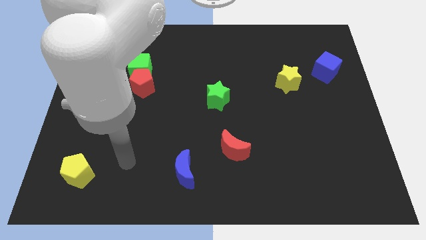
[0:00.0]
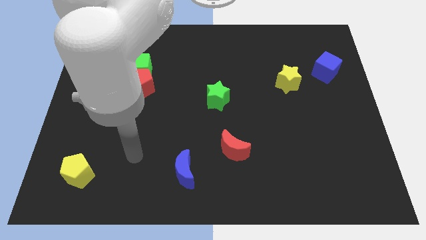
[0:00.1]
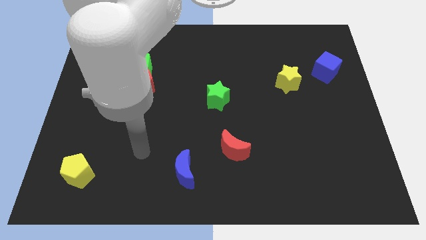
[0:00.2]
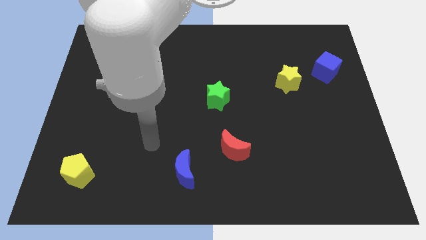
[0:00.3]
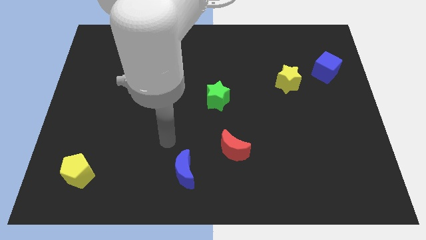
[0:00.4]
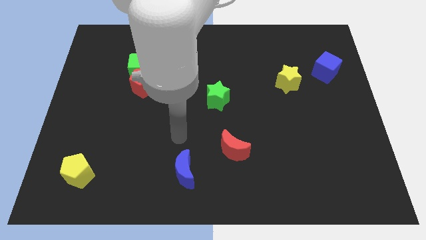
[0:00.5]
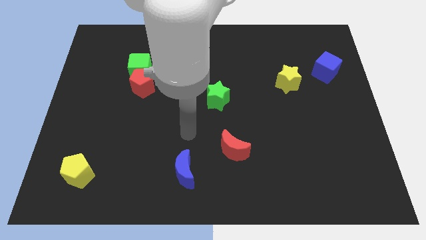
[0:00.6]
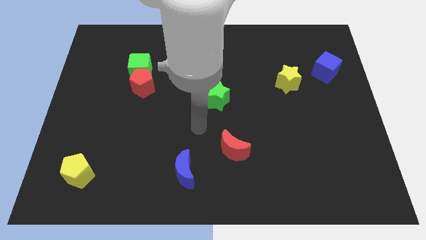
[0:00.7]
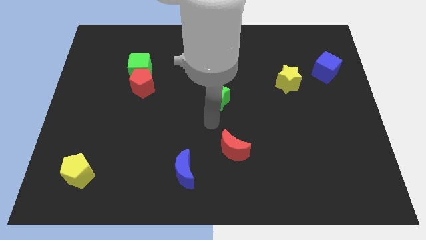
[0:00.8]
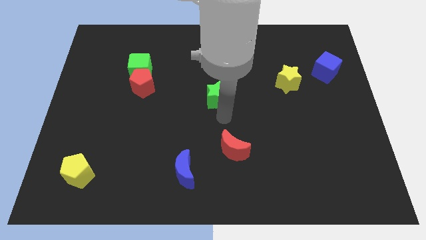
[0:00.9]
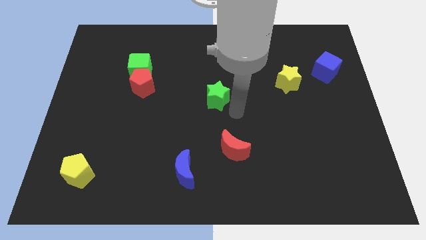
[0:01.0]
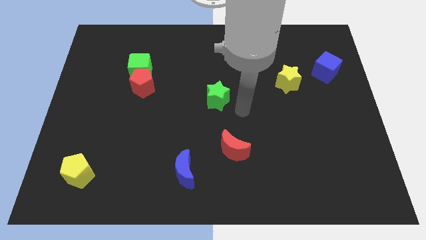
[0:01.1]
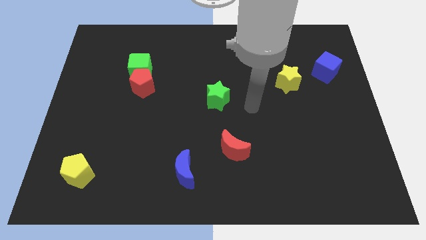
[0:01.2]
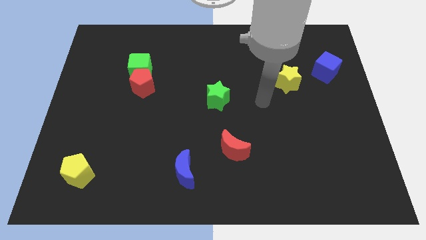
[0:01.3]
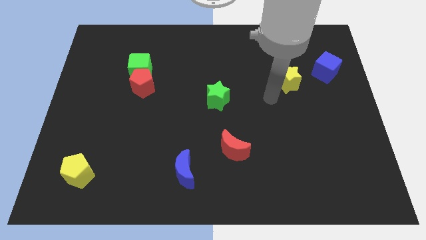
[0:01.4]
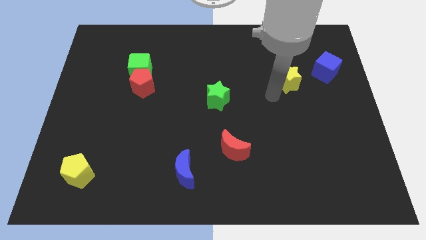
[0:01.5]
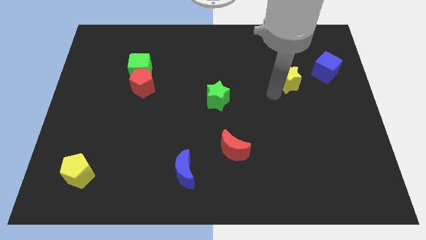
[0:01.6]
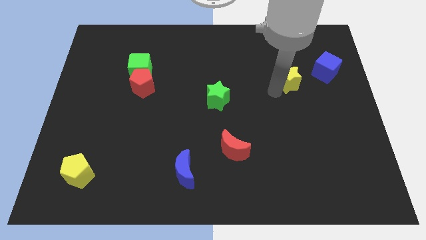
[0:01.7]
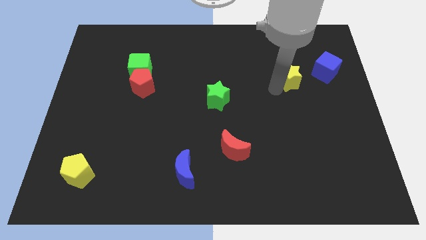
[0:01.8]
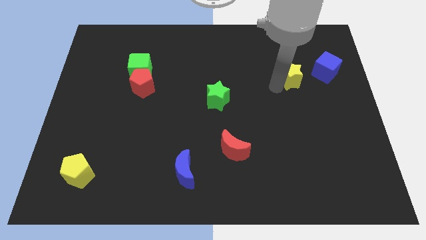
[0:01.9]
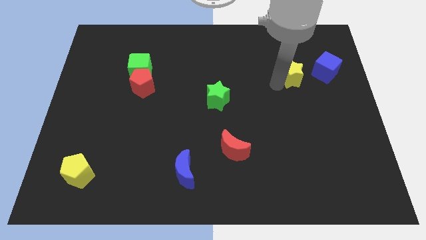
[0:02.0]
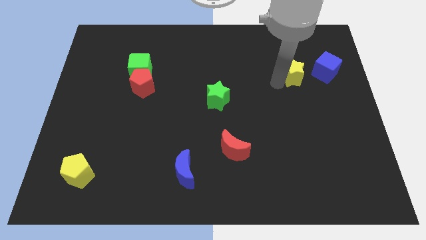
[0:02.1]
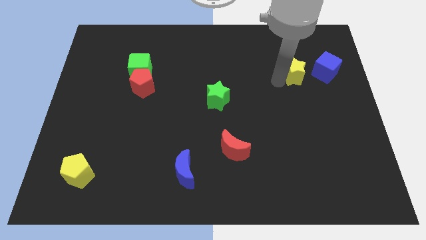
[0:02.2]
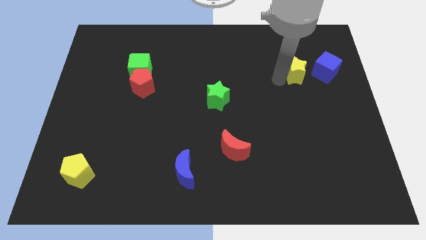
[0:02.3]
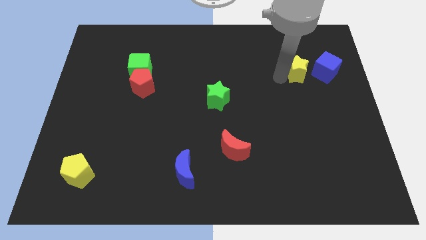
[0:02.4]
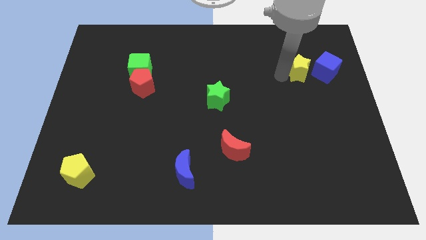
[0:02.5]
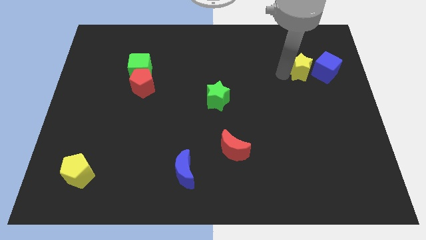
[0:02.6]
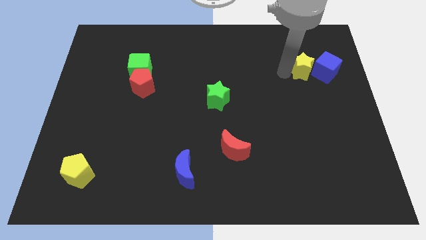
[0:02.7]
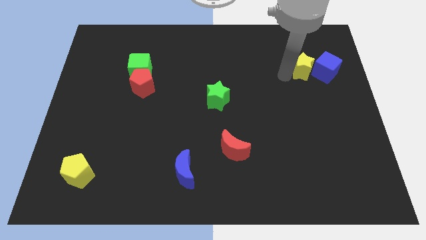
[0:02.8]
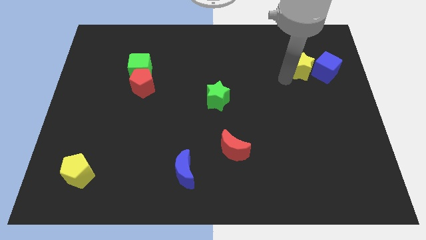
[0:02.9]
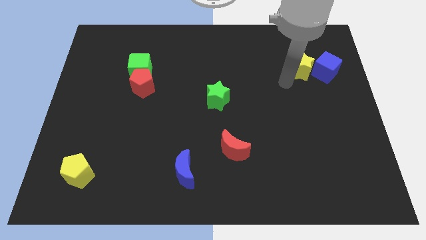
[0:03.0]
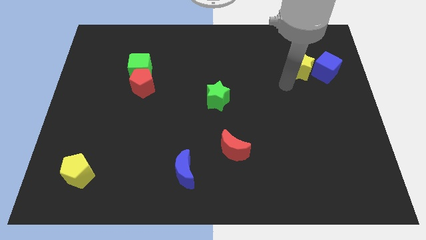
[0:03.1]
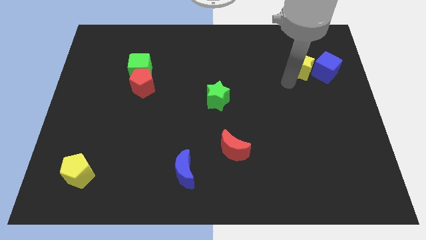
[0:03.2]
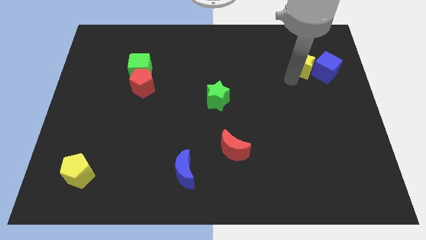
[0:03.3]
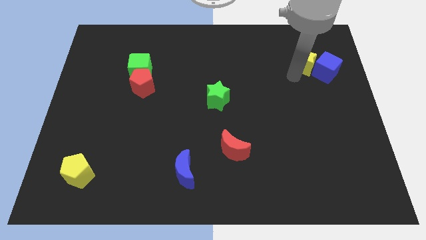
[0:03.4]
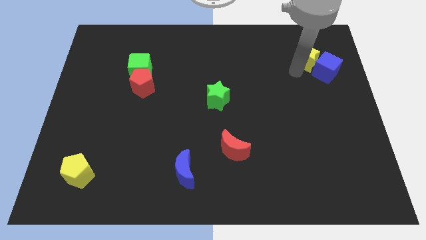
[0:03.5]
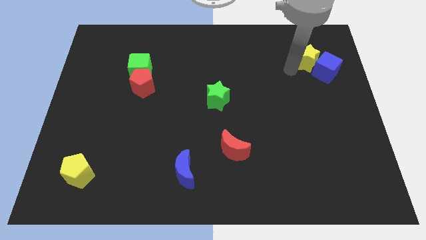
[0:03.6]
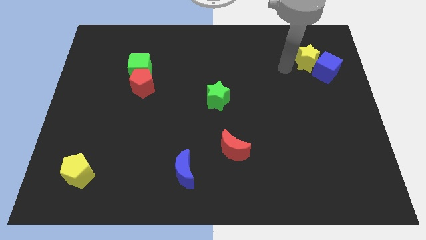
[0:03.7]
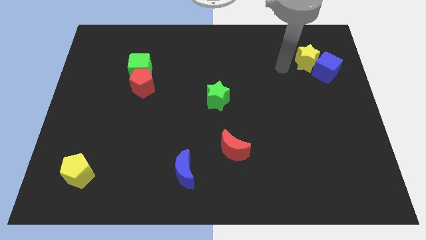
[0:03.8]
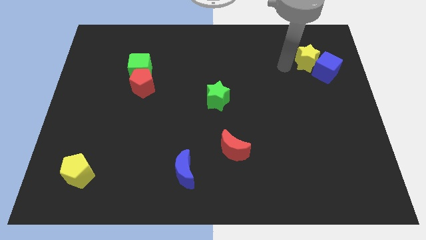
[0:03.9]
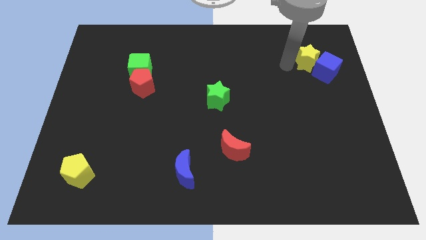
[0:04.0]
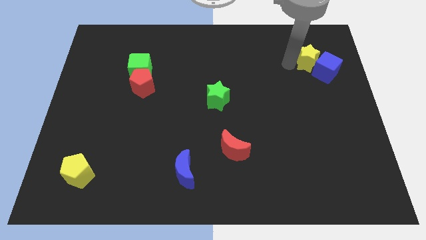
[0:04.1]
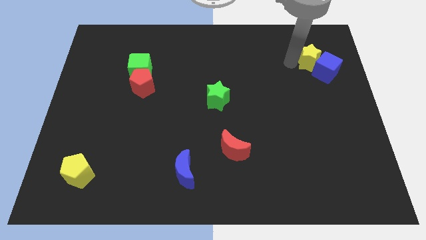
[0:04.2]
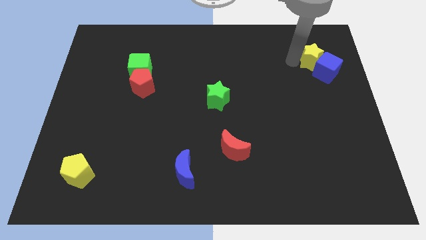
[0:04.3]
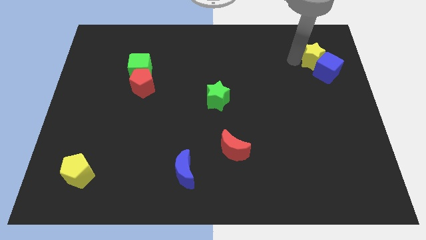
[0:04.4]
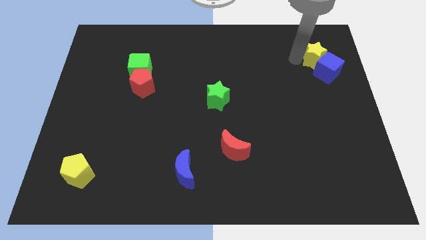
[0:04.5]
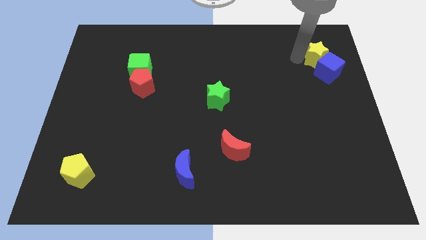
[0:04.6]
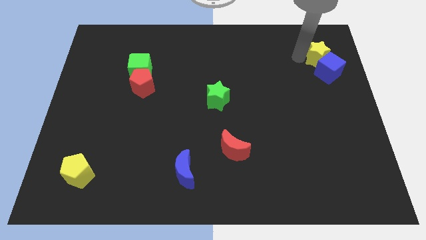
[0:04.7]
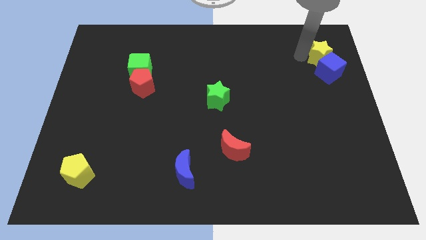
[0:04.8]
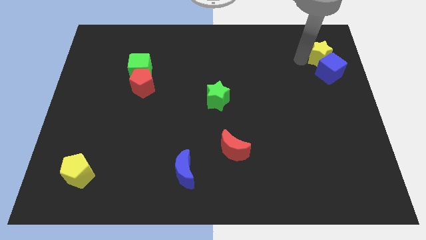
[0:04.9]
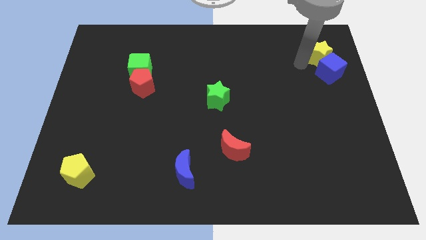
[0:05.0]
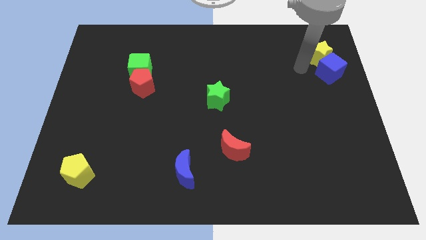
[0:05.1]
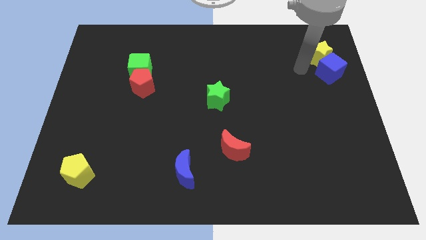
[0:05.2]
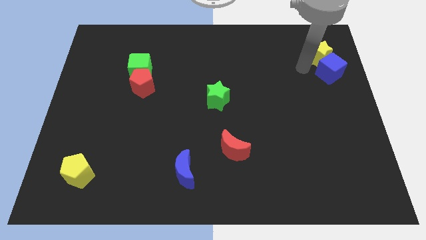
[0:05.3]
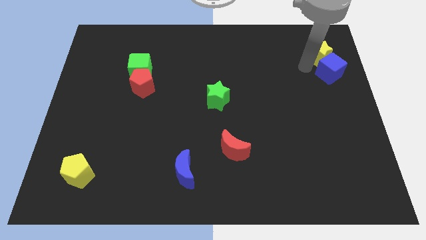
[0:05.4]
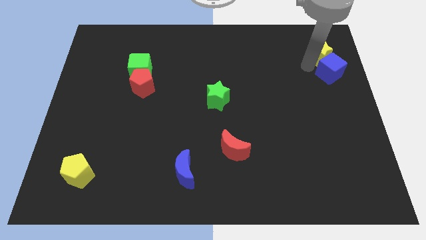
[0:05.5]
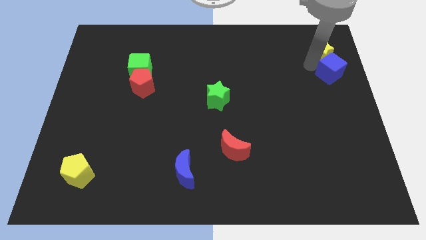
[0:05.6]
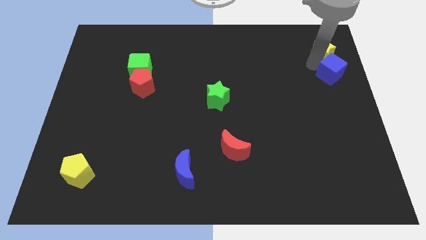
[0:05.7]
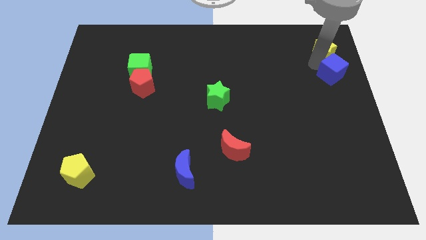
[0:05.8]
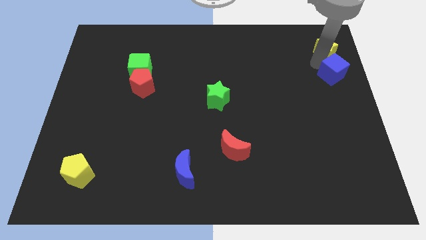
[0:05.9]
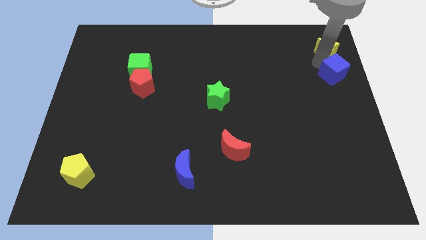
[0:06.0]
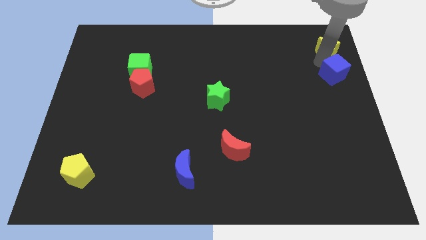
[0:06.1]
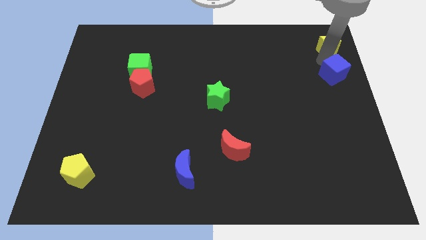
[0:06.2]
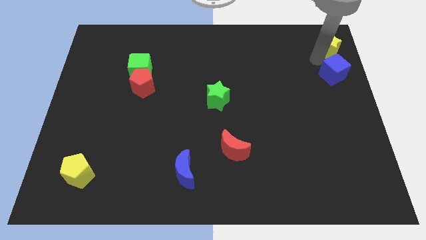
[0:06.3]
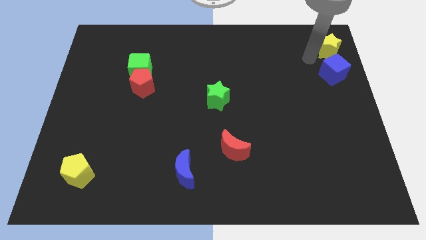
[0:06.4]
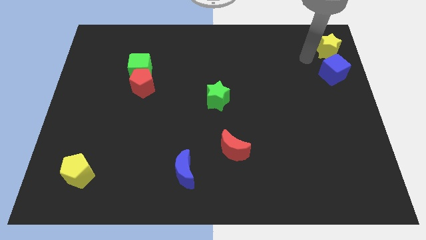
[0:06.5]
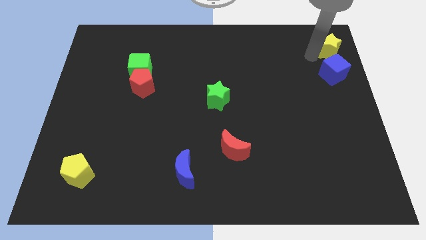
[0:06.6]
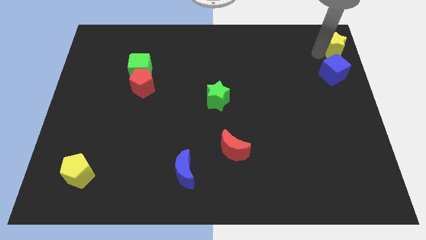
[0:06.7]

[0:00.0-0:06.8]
slide the yellow star to the top right of the board
